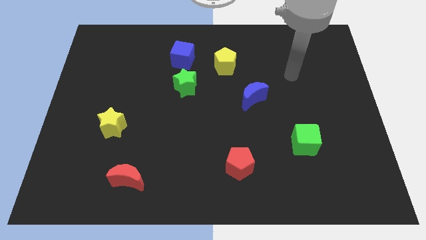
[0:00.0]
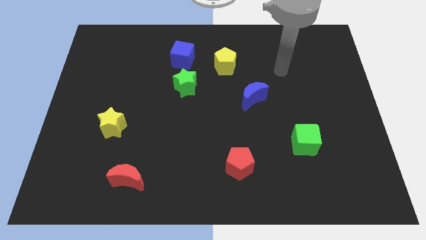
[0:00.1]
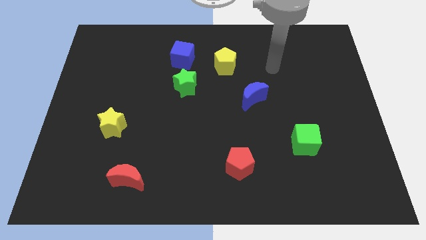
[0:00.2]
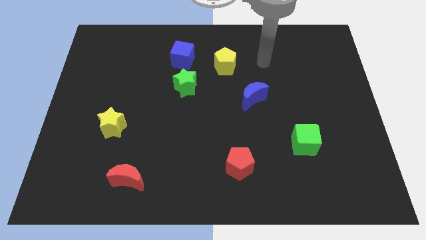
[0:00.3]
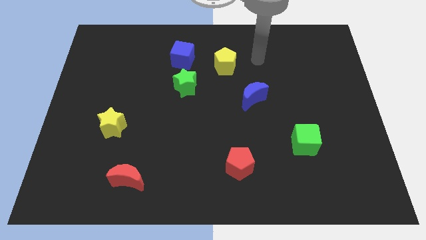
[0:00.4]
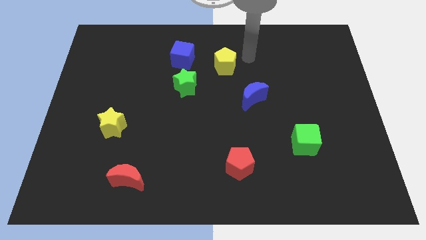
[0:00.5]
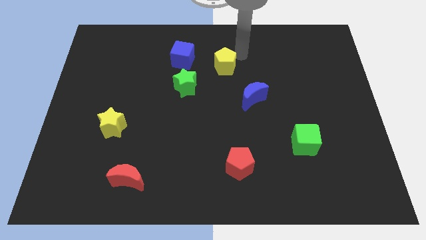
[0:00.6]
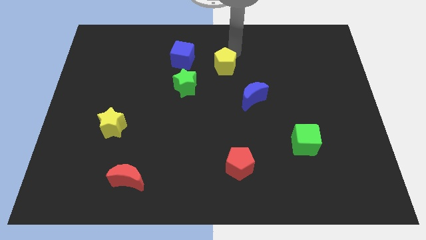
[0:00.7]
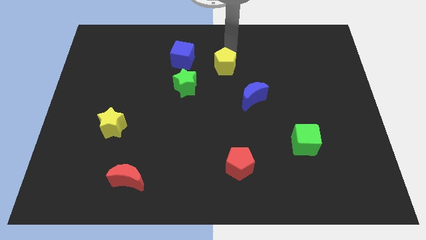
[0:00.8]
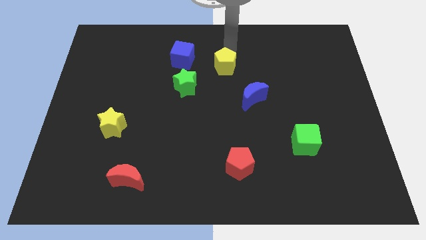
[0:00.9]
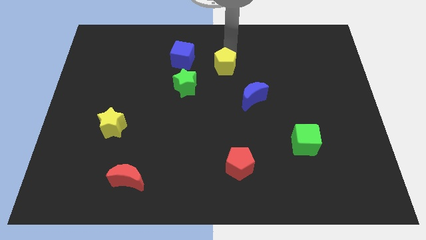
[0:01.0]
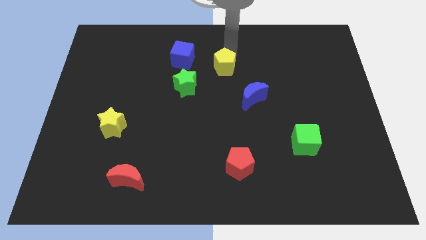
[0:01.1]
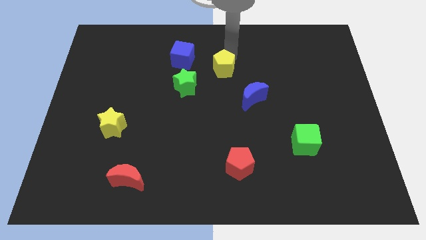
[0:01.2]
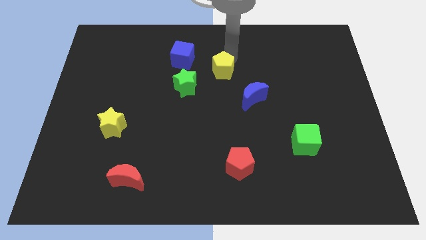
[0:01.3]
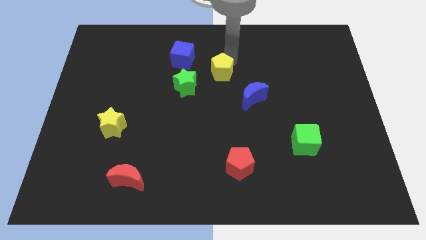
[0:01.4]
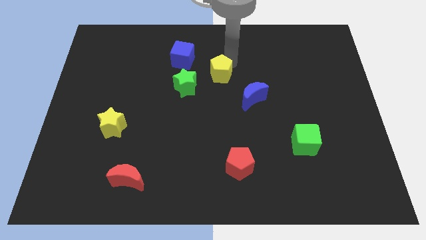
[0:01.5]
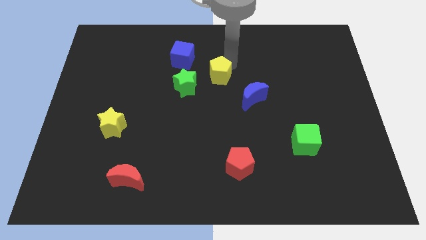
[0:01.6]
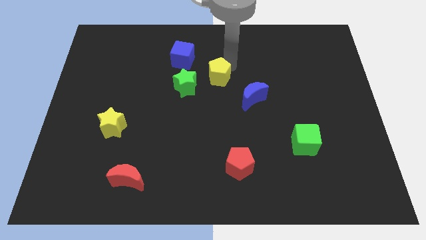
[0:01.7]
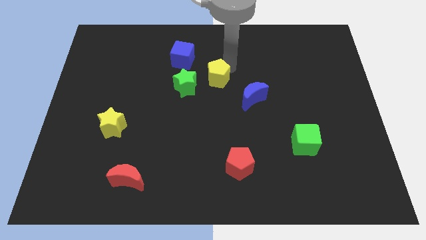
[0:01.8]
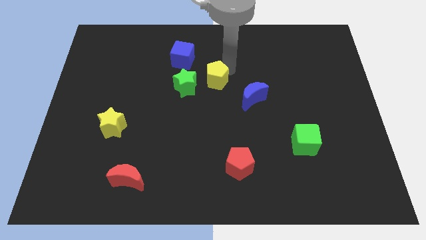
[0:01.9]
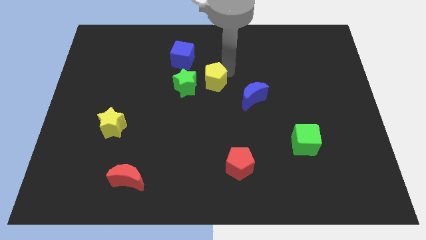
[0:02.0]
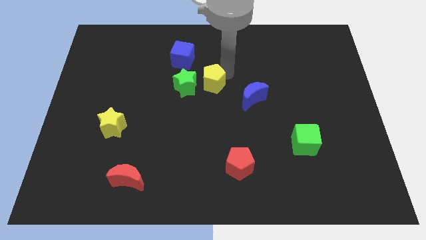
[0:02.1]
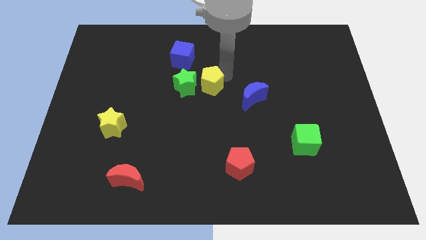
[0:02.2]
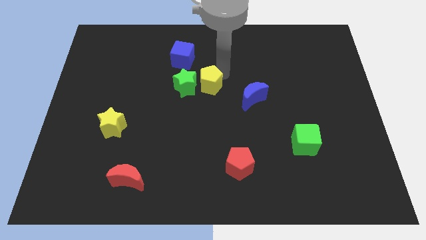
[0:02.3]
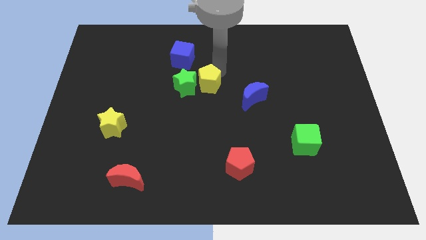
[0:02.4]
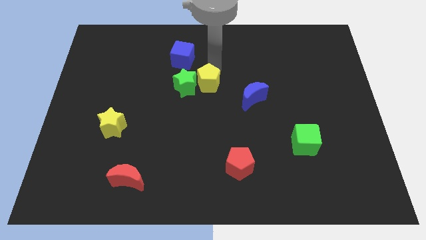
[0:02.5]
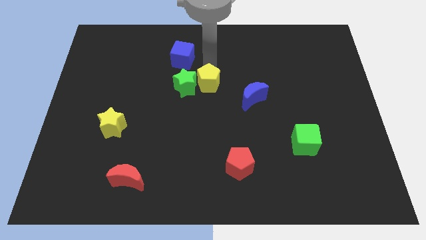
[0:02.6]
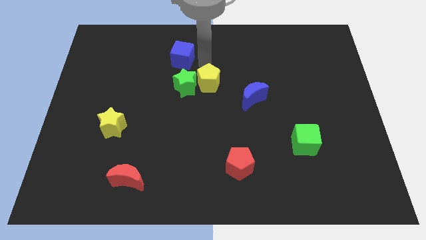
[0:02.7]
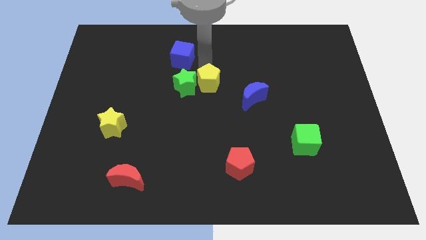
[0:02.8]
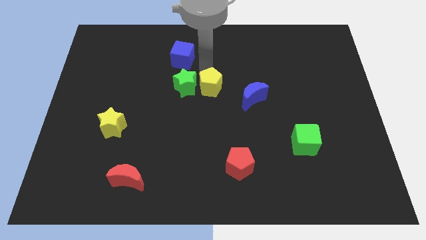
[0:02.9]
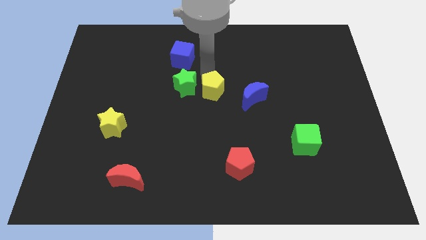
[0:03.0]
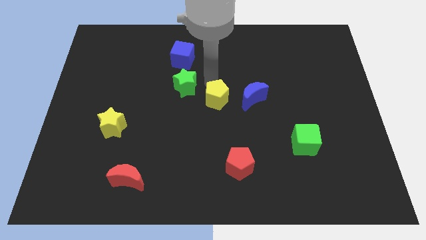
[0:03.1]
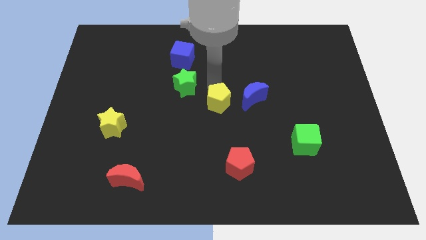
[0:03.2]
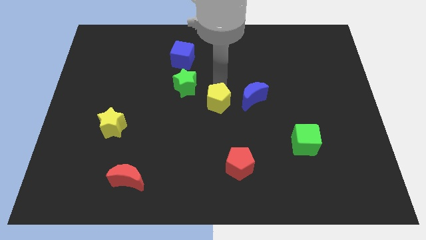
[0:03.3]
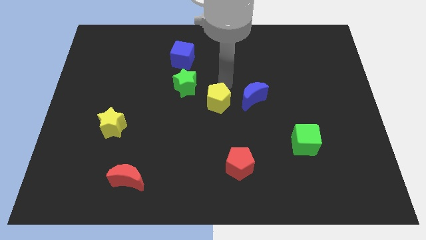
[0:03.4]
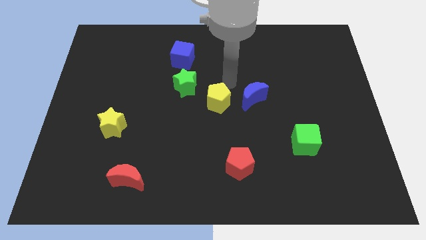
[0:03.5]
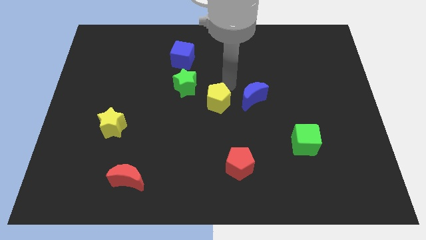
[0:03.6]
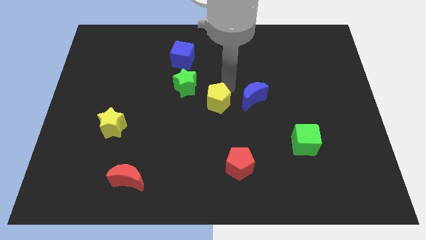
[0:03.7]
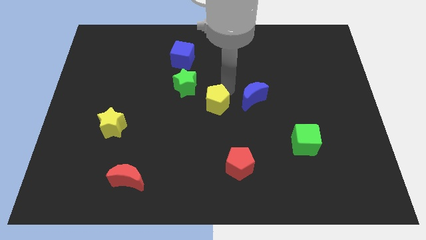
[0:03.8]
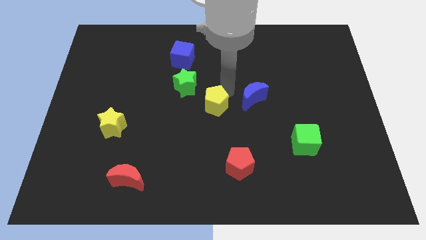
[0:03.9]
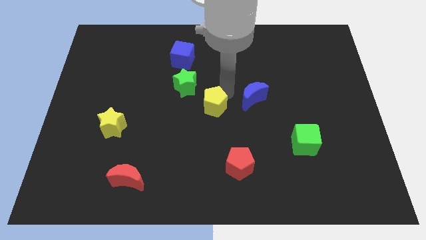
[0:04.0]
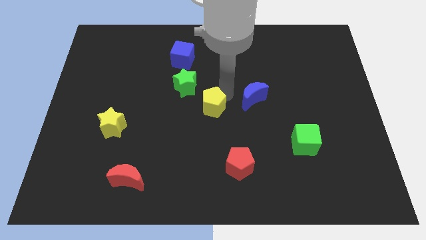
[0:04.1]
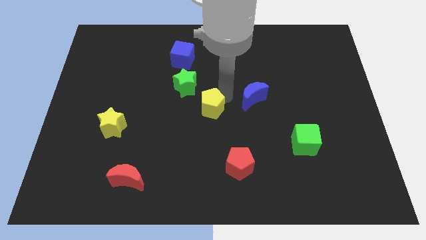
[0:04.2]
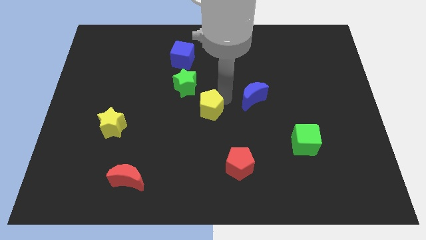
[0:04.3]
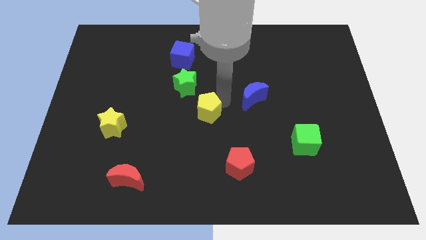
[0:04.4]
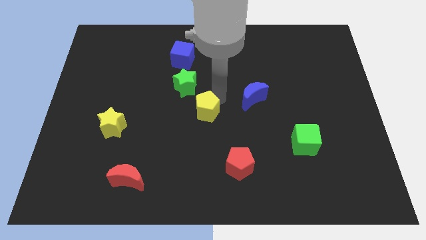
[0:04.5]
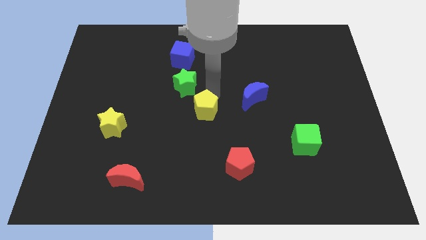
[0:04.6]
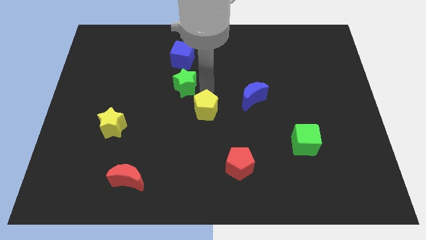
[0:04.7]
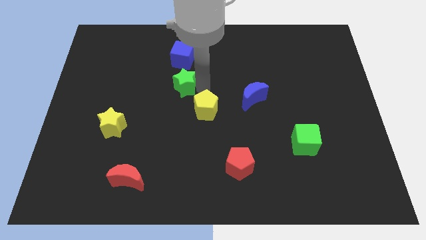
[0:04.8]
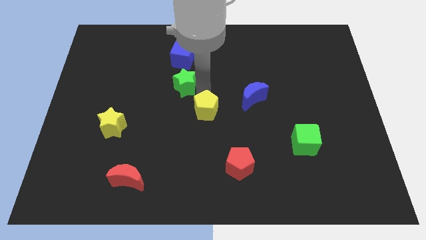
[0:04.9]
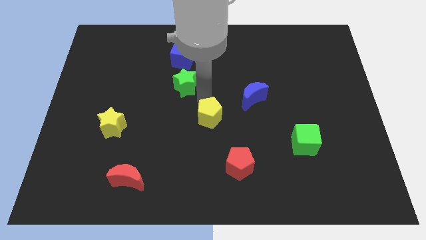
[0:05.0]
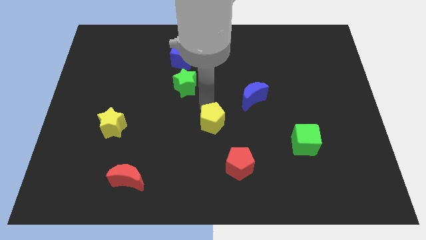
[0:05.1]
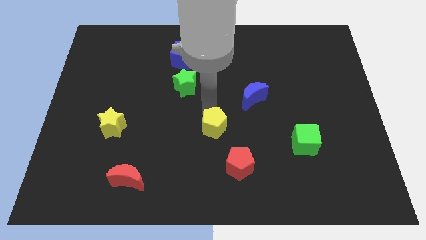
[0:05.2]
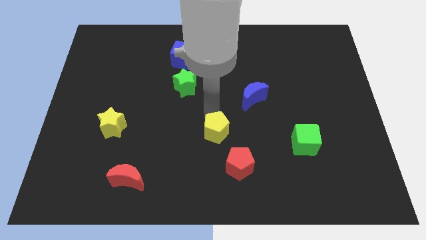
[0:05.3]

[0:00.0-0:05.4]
slide the yellow pentagon downwards

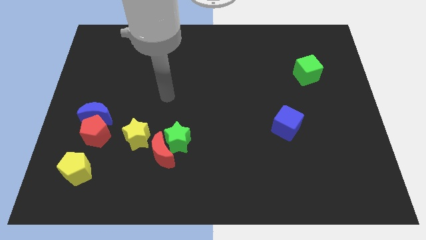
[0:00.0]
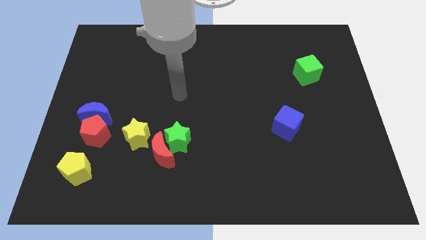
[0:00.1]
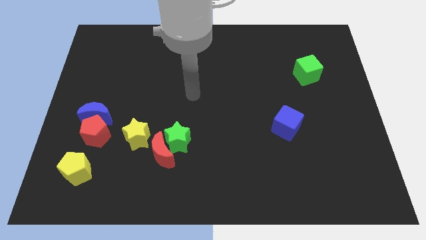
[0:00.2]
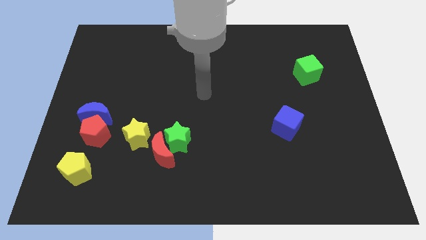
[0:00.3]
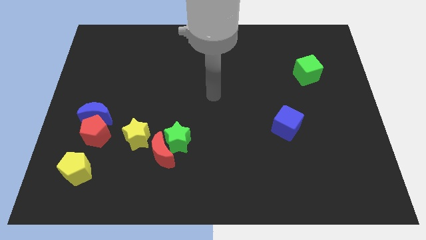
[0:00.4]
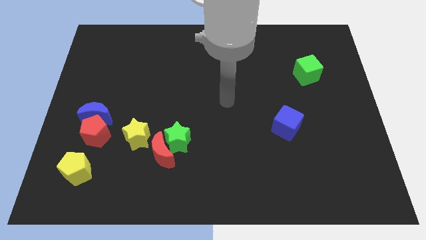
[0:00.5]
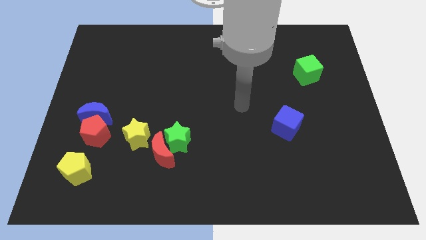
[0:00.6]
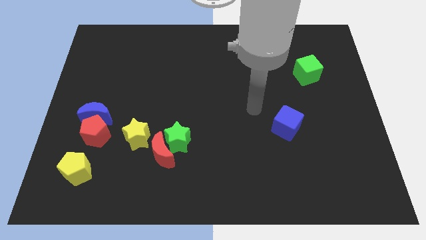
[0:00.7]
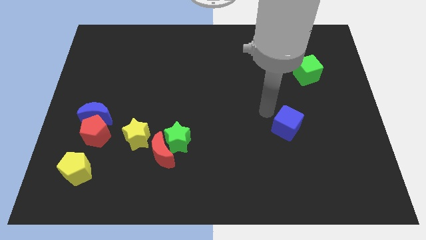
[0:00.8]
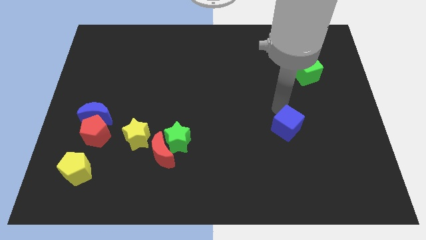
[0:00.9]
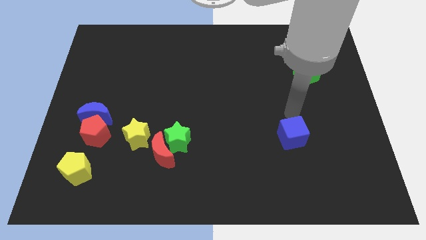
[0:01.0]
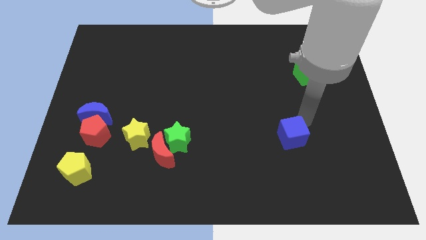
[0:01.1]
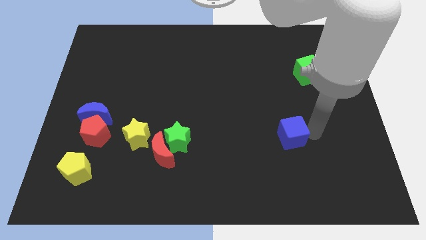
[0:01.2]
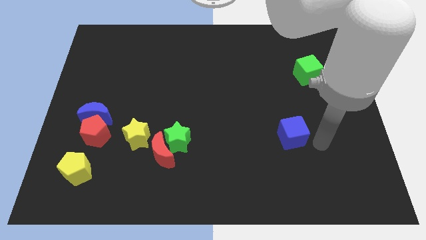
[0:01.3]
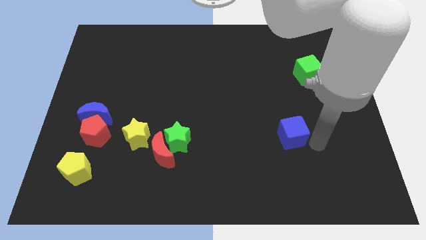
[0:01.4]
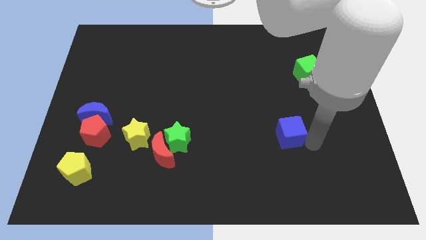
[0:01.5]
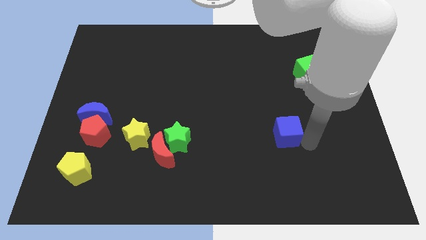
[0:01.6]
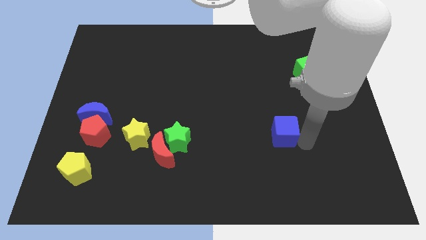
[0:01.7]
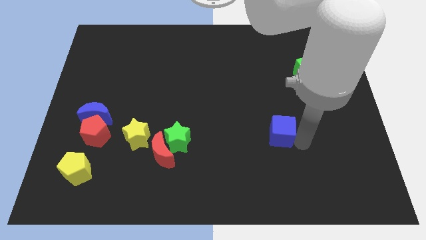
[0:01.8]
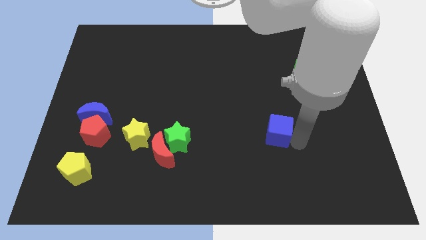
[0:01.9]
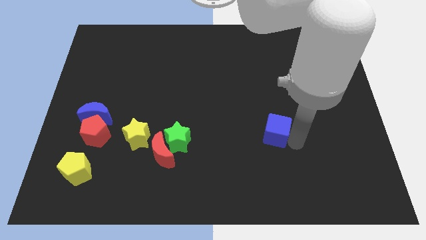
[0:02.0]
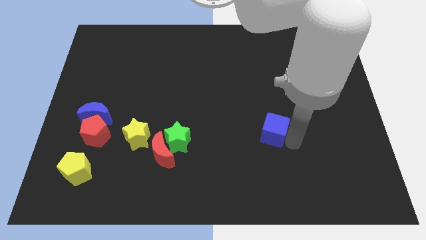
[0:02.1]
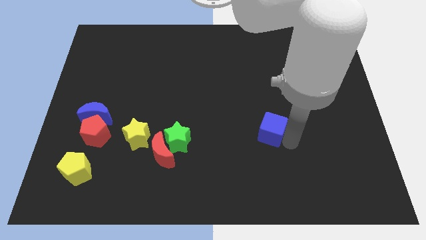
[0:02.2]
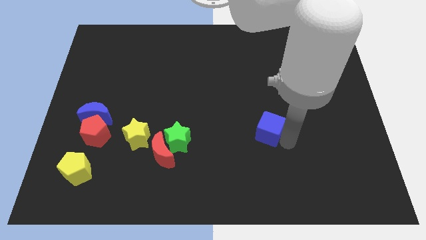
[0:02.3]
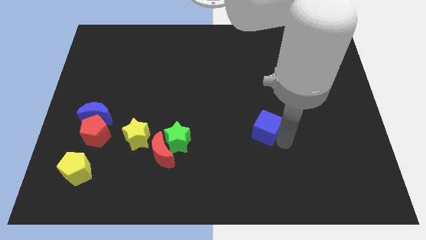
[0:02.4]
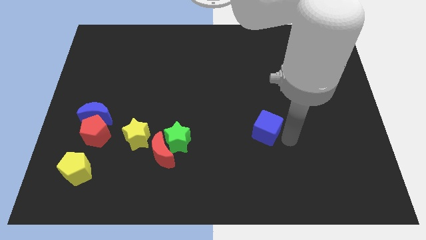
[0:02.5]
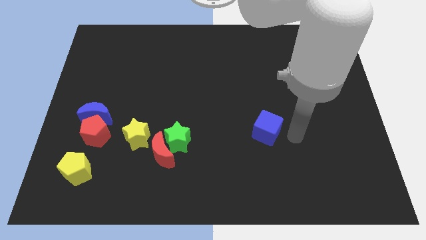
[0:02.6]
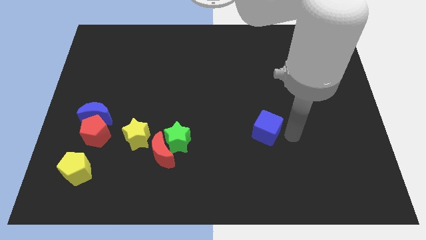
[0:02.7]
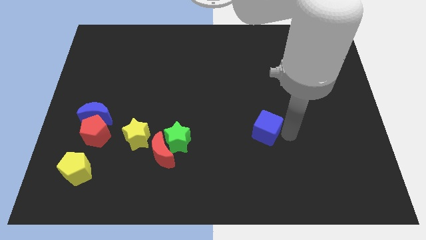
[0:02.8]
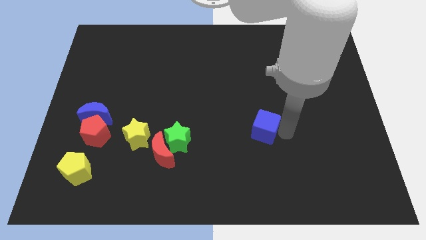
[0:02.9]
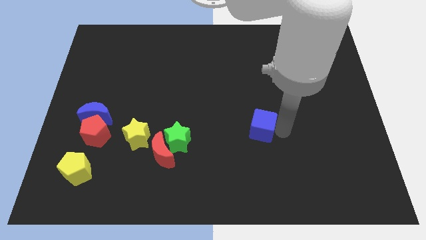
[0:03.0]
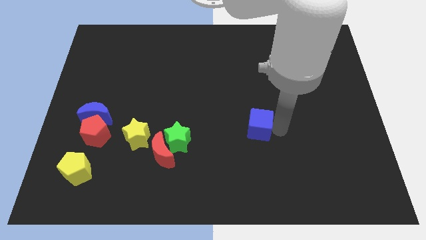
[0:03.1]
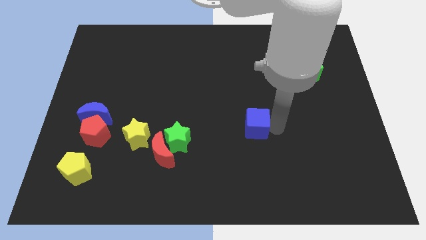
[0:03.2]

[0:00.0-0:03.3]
slide the blue cube left a little
